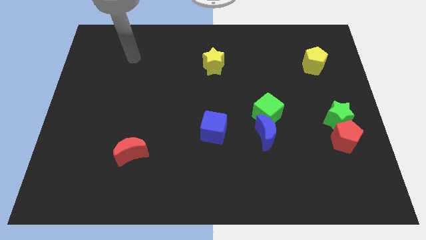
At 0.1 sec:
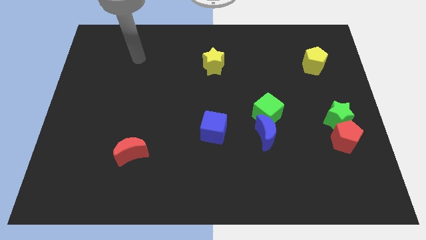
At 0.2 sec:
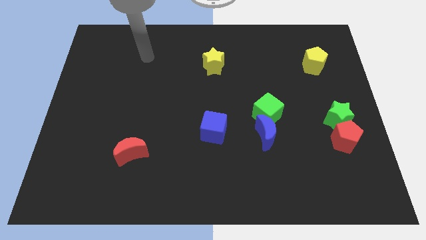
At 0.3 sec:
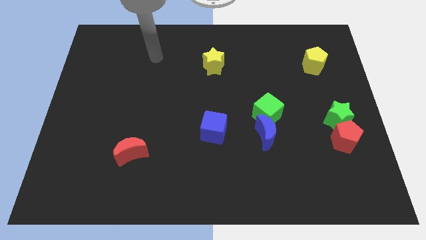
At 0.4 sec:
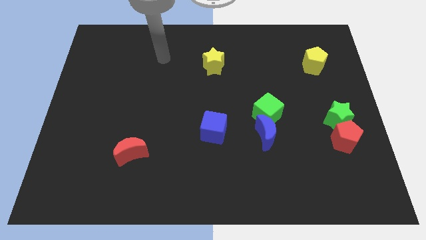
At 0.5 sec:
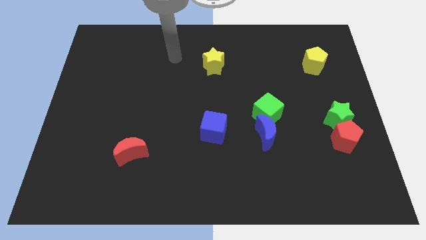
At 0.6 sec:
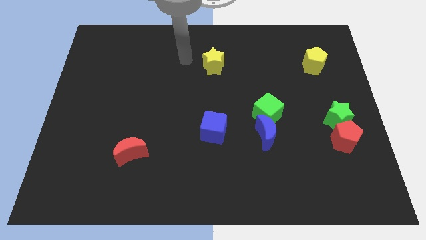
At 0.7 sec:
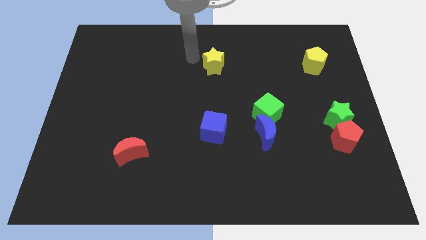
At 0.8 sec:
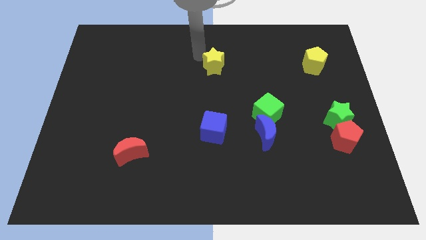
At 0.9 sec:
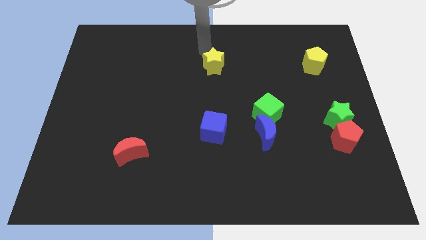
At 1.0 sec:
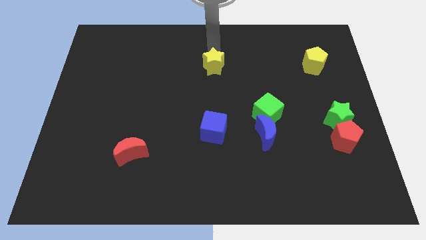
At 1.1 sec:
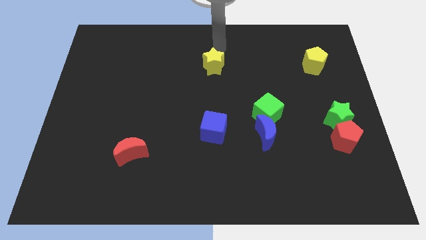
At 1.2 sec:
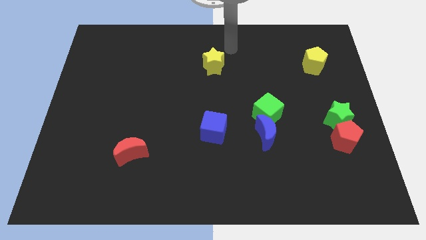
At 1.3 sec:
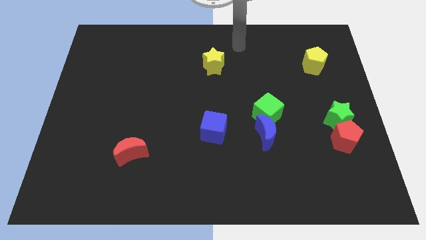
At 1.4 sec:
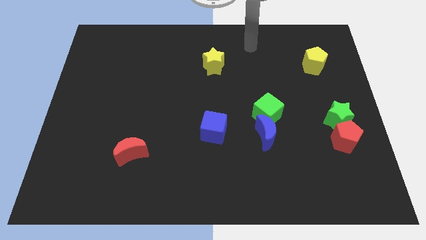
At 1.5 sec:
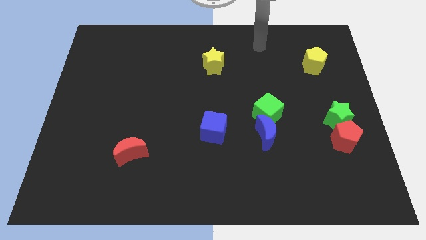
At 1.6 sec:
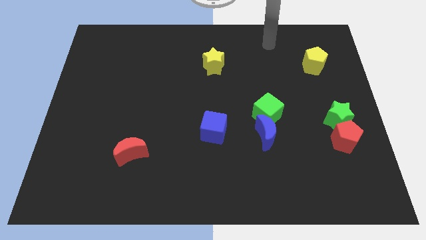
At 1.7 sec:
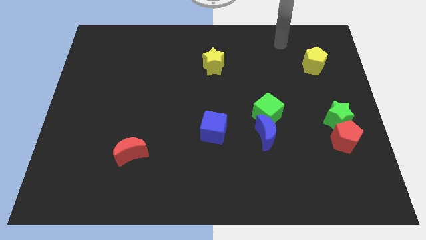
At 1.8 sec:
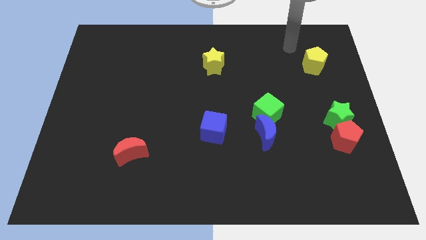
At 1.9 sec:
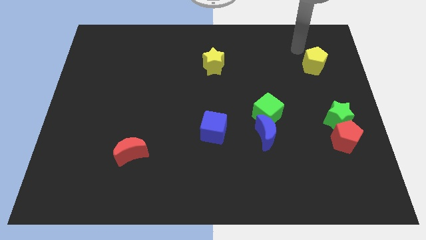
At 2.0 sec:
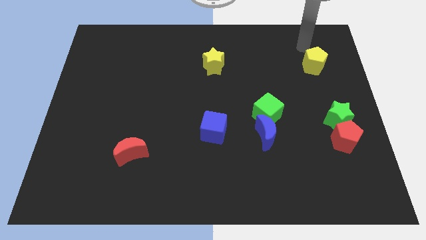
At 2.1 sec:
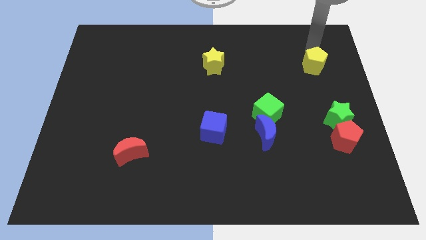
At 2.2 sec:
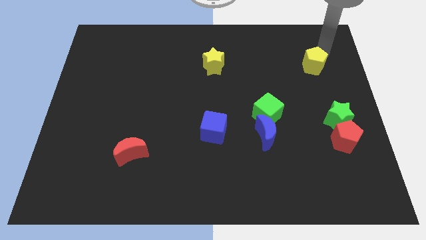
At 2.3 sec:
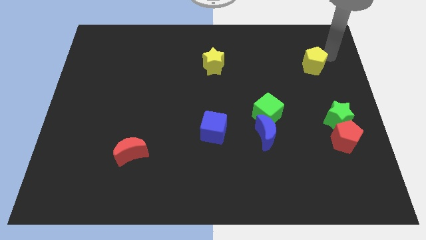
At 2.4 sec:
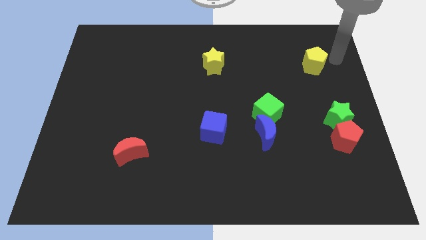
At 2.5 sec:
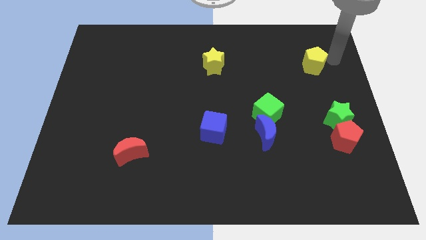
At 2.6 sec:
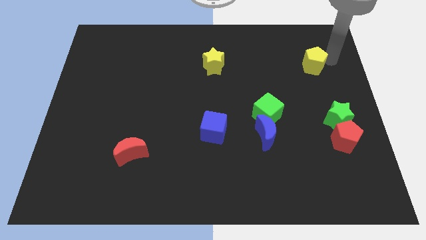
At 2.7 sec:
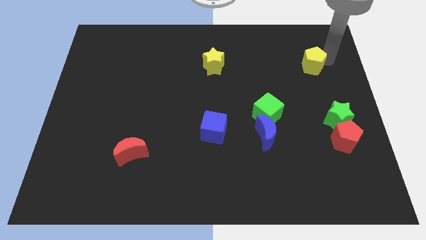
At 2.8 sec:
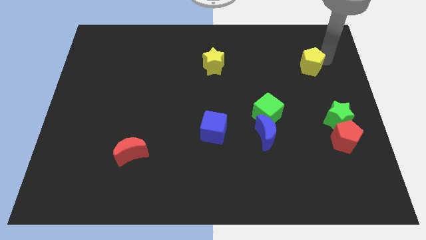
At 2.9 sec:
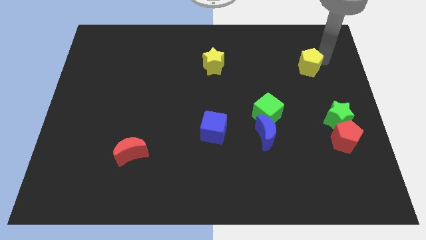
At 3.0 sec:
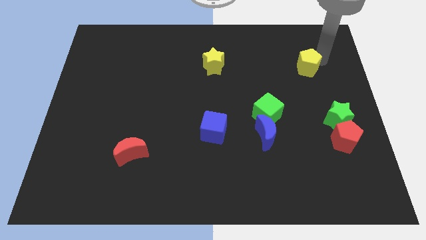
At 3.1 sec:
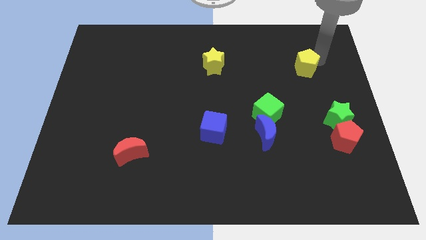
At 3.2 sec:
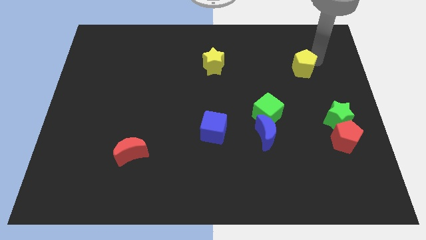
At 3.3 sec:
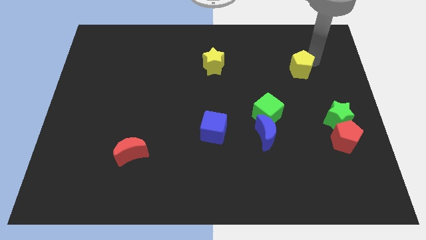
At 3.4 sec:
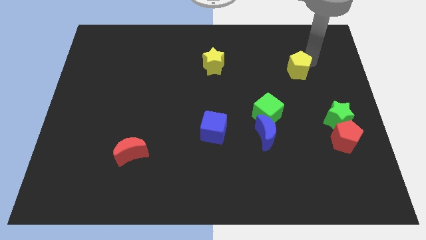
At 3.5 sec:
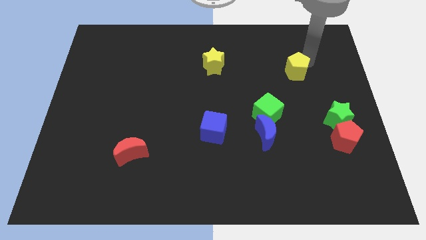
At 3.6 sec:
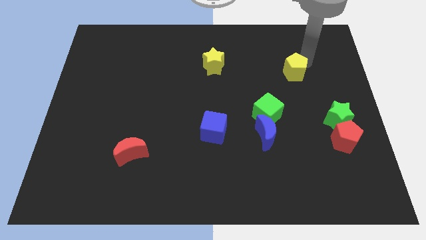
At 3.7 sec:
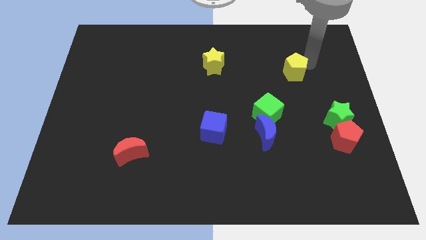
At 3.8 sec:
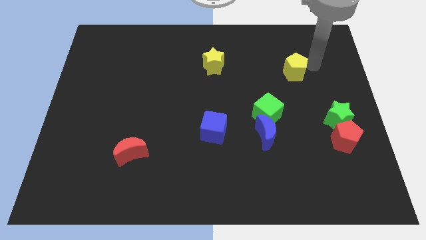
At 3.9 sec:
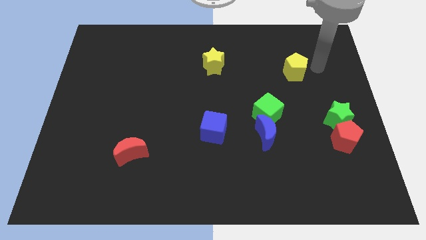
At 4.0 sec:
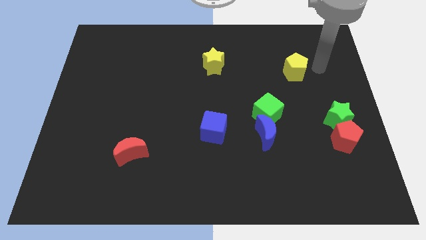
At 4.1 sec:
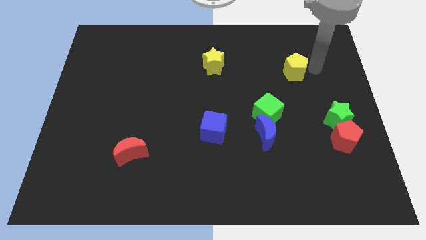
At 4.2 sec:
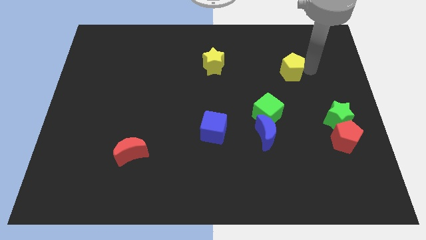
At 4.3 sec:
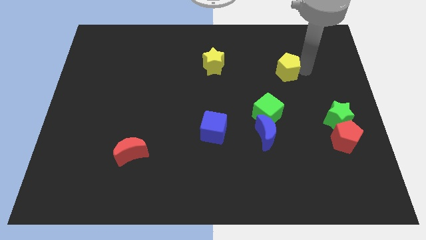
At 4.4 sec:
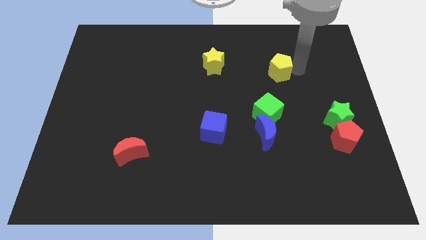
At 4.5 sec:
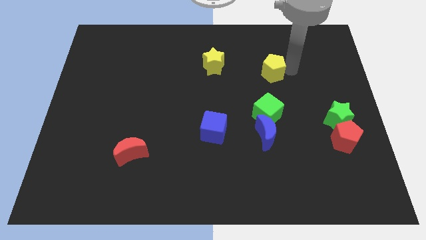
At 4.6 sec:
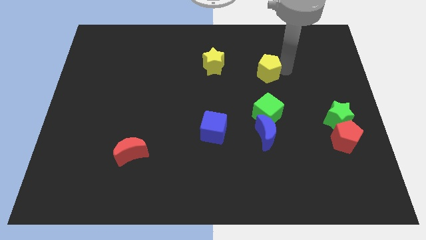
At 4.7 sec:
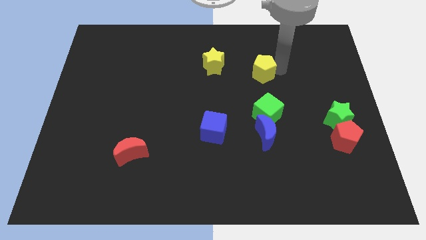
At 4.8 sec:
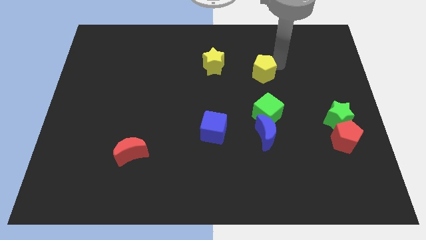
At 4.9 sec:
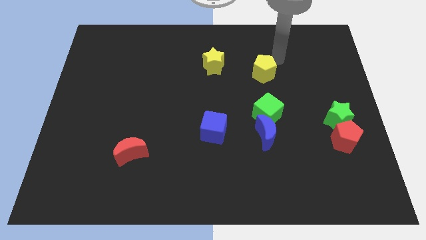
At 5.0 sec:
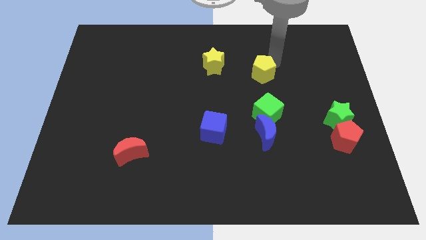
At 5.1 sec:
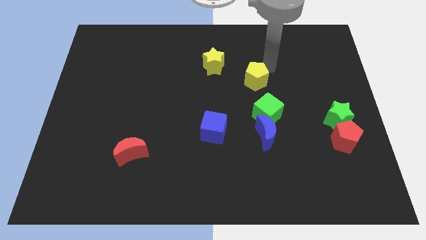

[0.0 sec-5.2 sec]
move the yellow pentagon to the center of the board

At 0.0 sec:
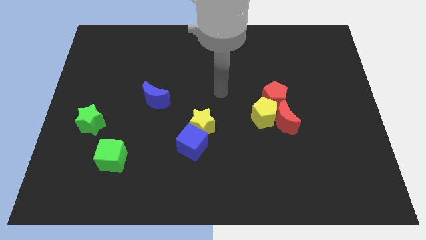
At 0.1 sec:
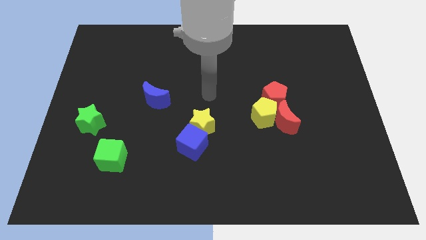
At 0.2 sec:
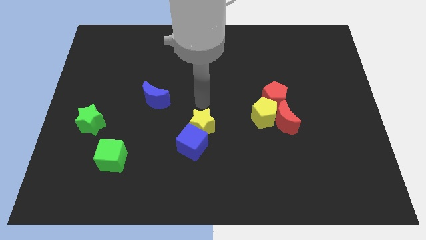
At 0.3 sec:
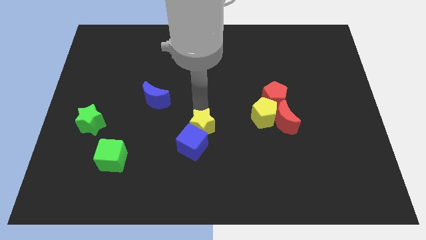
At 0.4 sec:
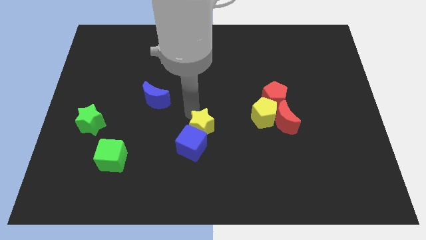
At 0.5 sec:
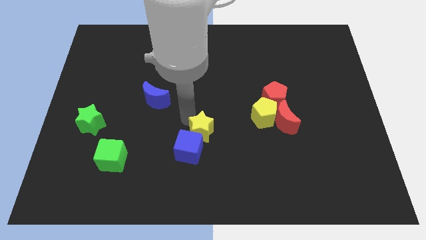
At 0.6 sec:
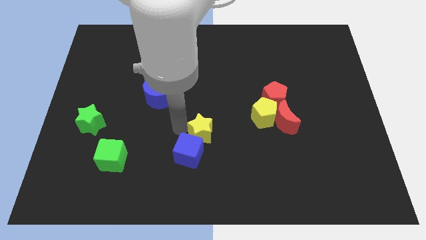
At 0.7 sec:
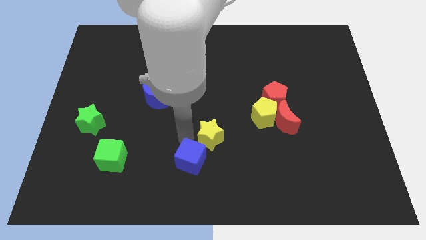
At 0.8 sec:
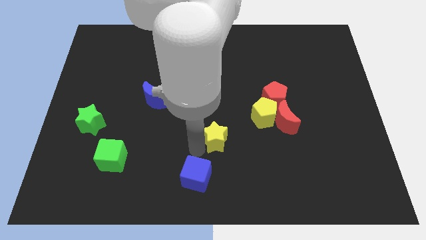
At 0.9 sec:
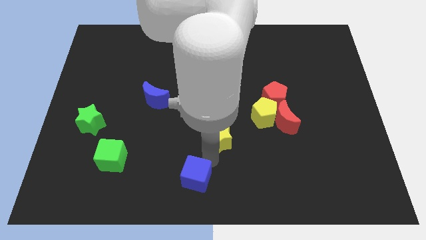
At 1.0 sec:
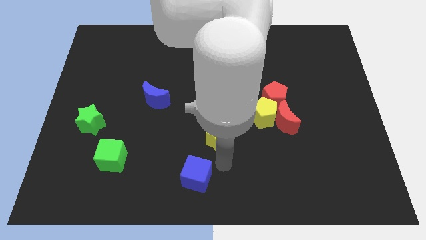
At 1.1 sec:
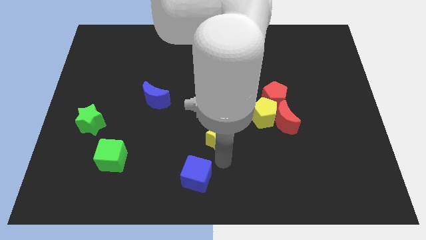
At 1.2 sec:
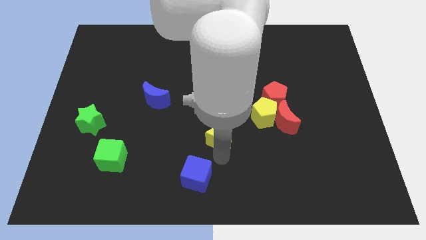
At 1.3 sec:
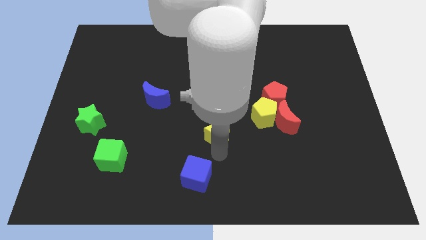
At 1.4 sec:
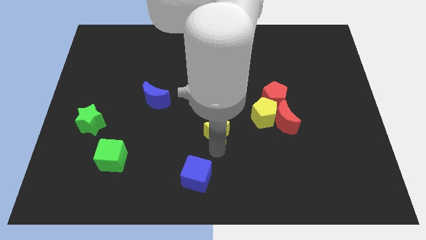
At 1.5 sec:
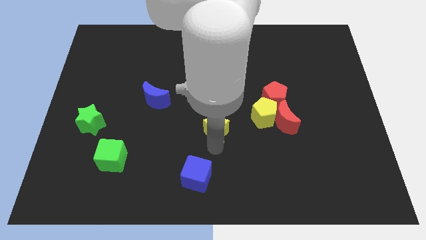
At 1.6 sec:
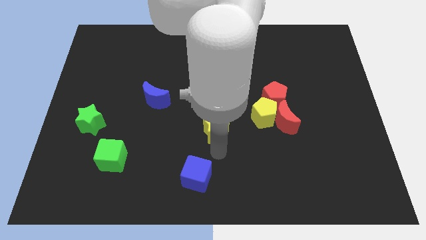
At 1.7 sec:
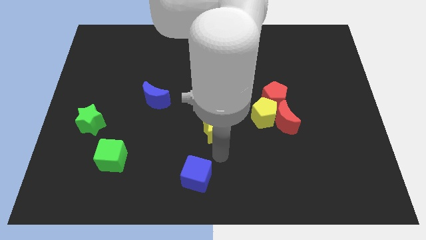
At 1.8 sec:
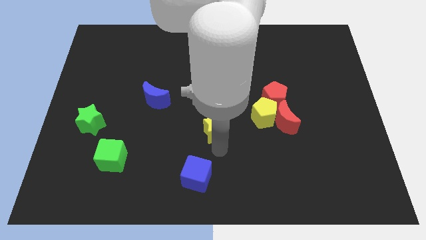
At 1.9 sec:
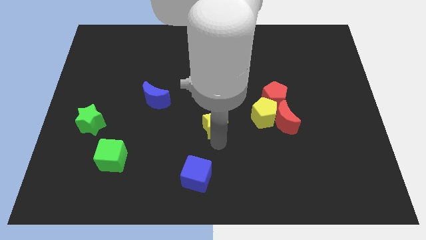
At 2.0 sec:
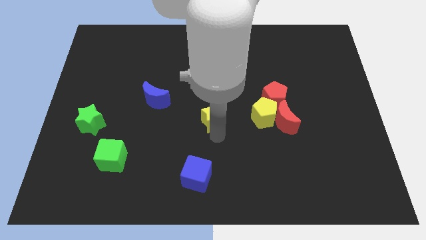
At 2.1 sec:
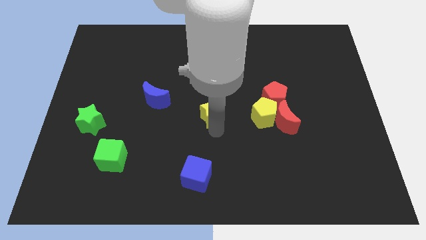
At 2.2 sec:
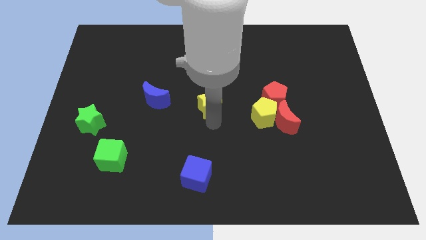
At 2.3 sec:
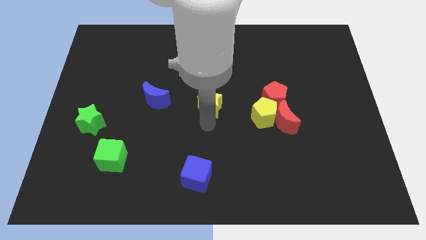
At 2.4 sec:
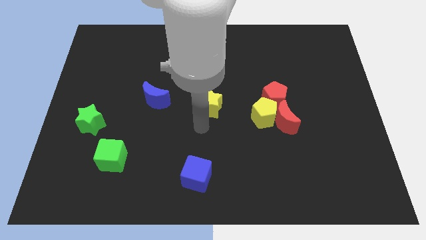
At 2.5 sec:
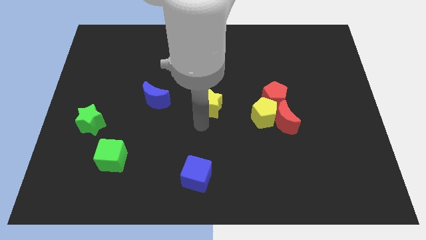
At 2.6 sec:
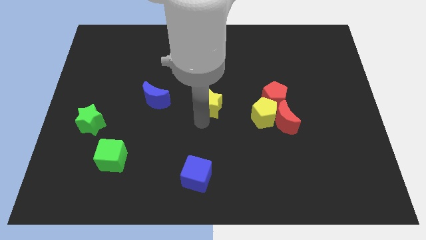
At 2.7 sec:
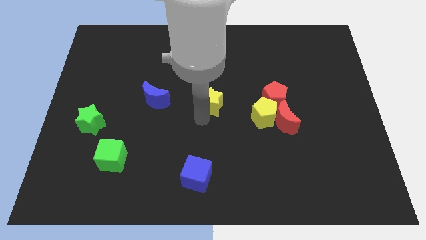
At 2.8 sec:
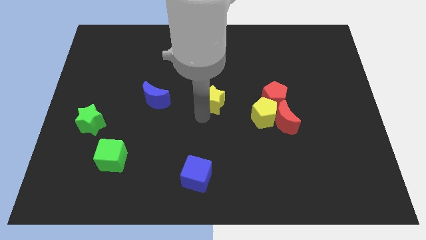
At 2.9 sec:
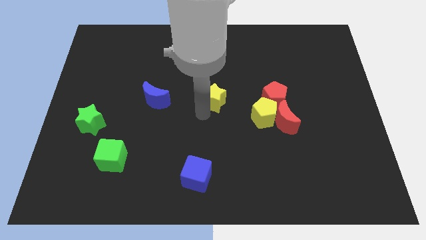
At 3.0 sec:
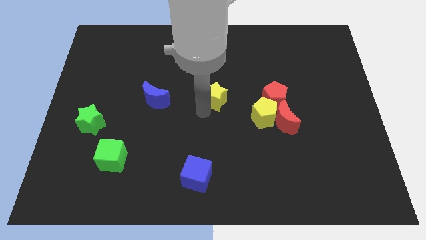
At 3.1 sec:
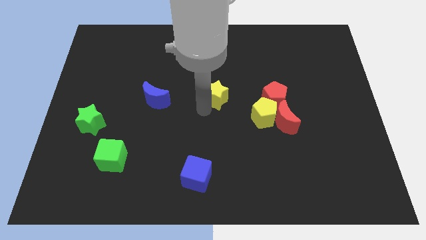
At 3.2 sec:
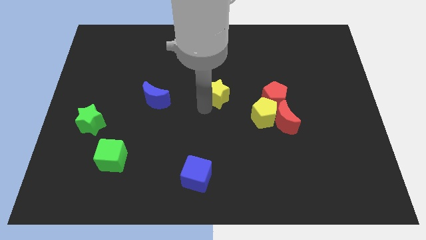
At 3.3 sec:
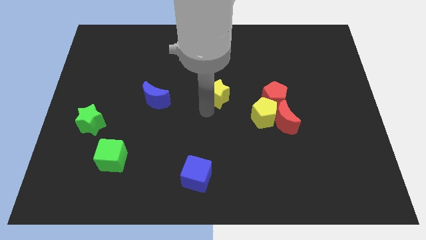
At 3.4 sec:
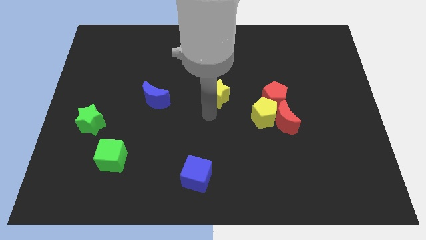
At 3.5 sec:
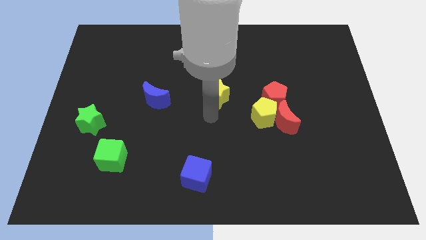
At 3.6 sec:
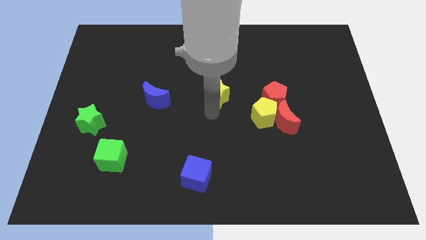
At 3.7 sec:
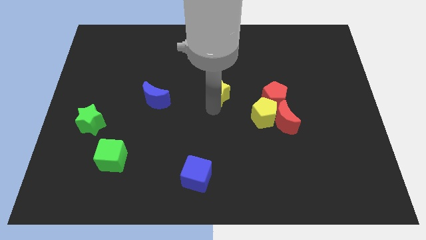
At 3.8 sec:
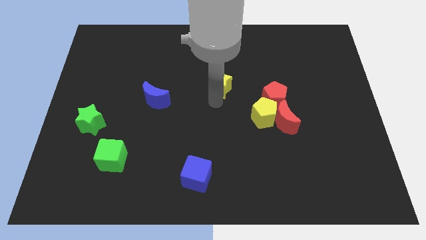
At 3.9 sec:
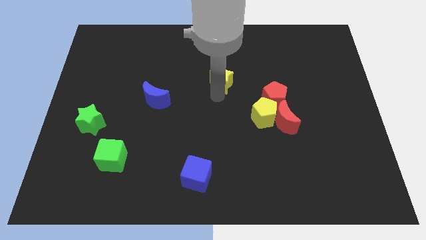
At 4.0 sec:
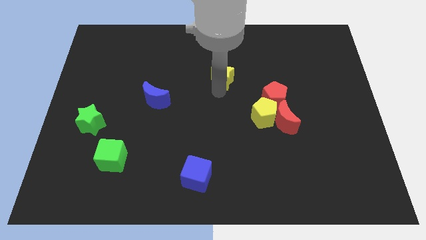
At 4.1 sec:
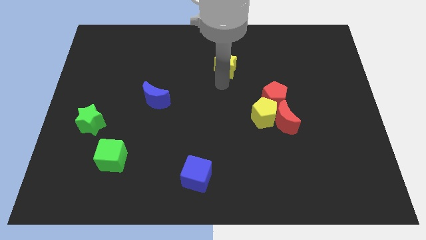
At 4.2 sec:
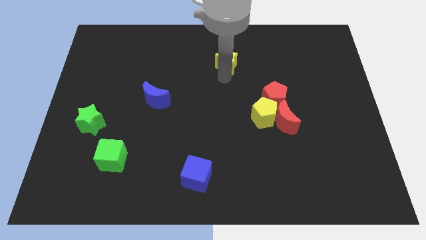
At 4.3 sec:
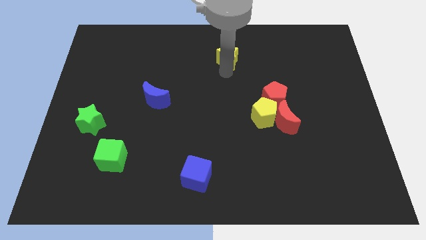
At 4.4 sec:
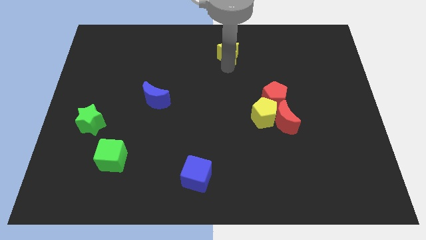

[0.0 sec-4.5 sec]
slide the yellow star to the top side
